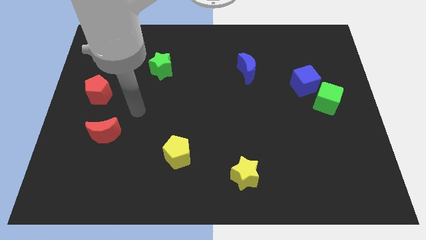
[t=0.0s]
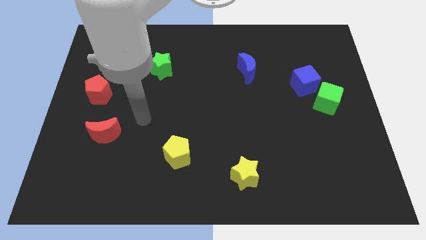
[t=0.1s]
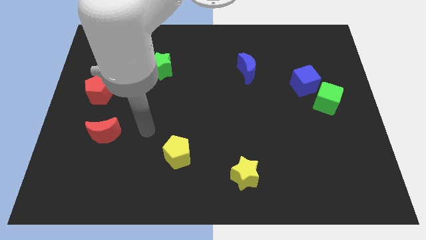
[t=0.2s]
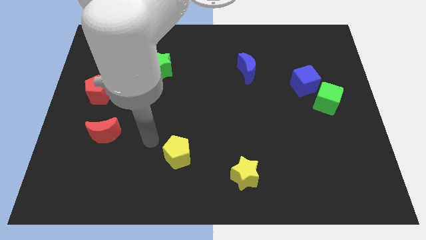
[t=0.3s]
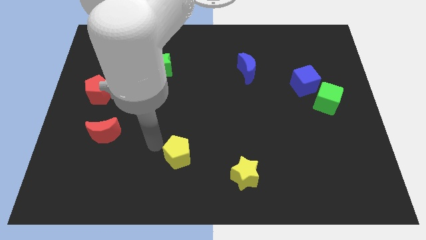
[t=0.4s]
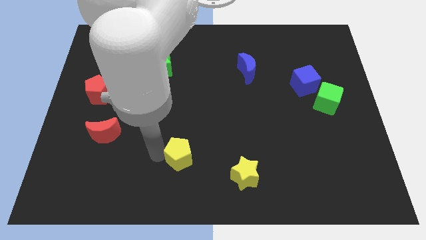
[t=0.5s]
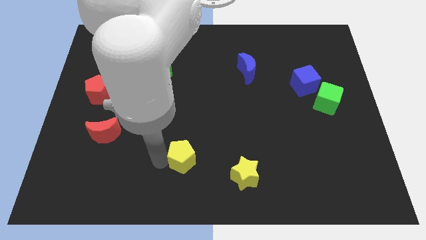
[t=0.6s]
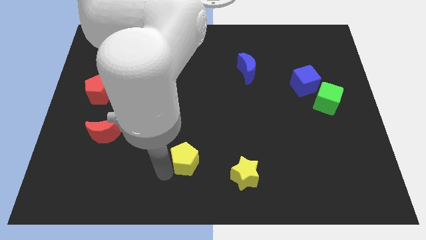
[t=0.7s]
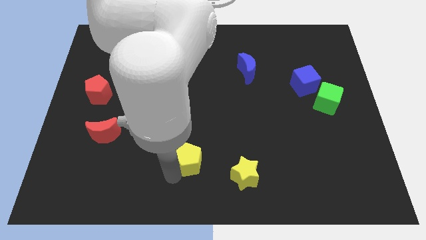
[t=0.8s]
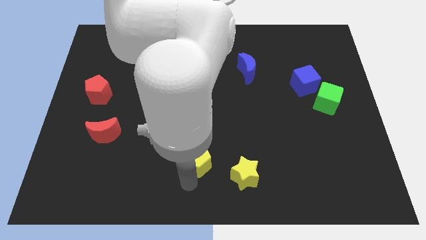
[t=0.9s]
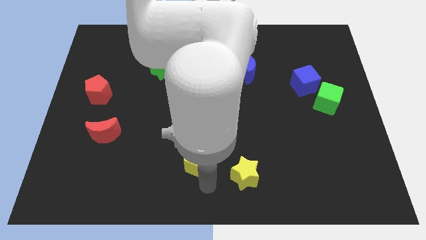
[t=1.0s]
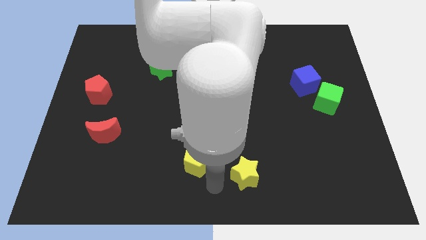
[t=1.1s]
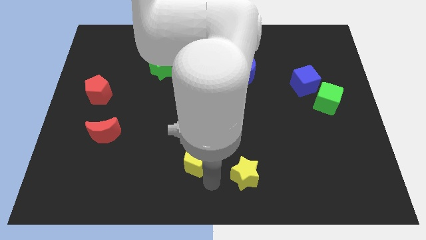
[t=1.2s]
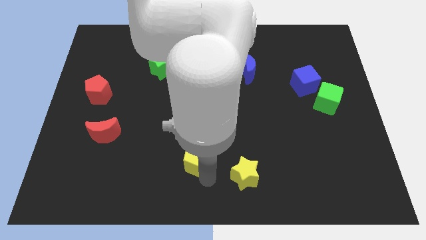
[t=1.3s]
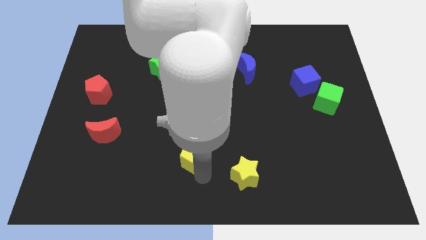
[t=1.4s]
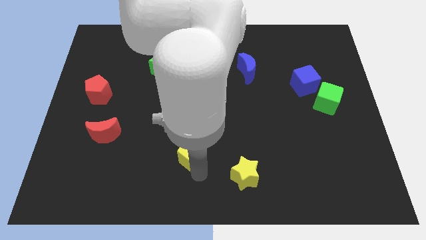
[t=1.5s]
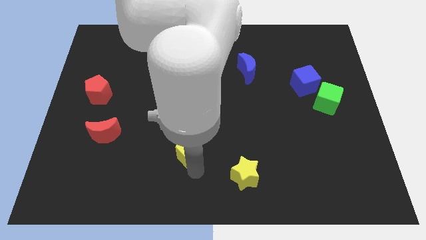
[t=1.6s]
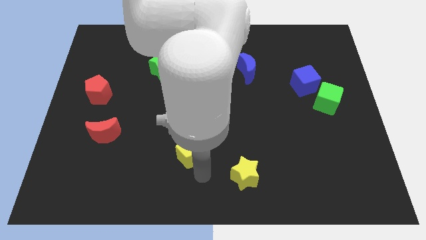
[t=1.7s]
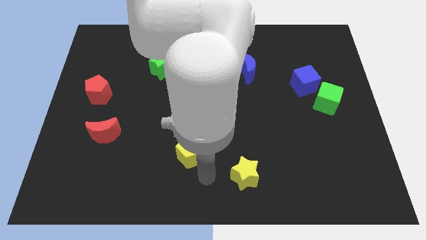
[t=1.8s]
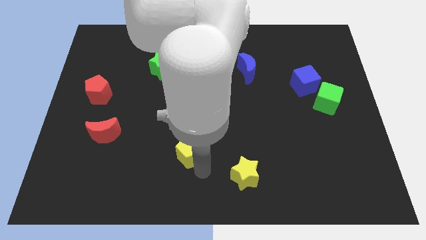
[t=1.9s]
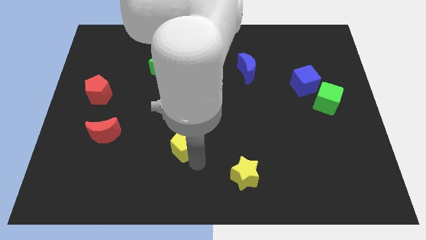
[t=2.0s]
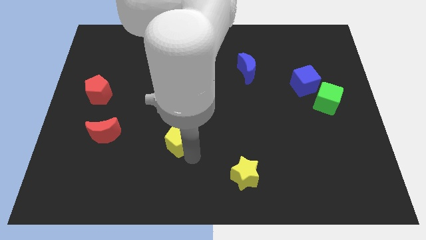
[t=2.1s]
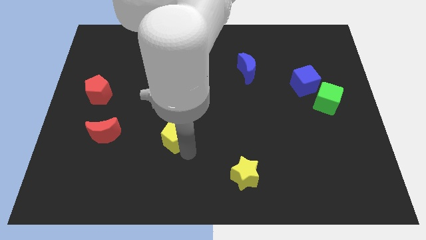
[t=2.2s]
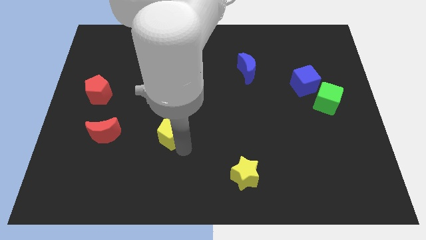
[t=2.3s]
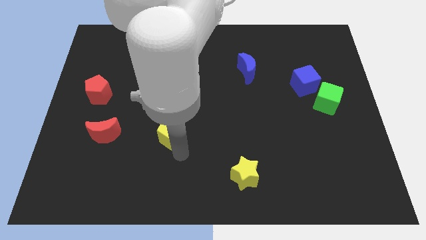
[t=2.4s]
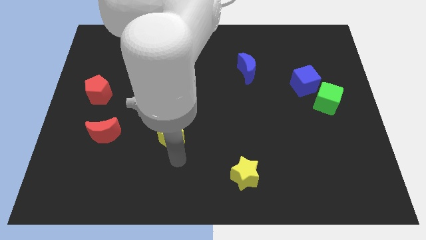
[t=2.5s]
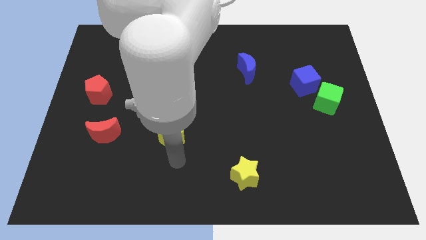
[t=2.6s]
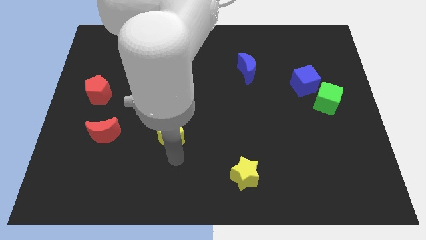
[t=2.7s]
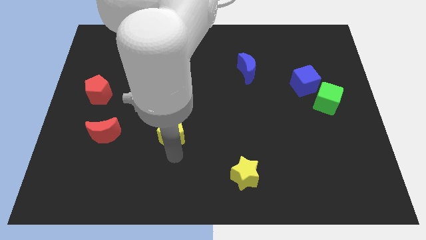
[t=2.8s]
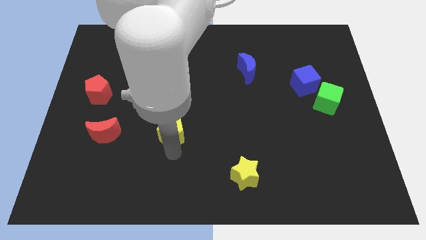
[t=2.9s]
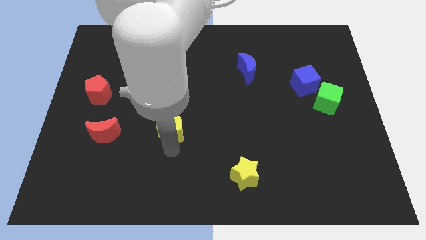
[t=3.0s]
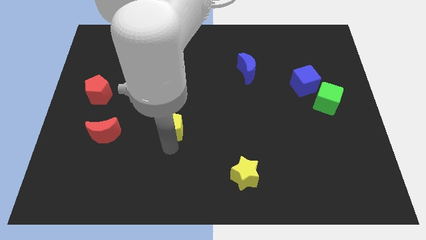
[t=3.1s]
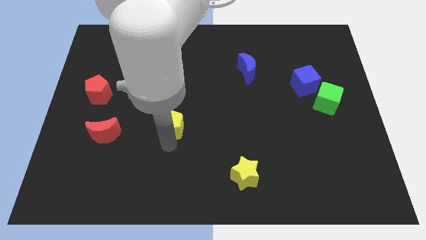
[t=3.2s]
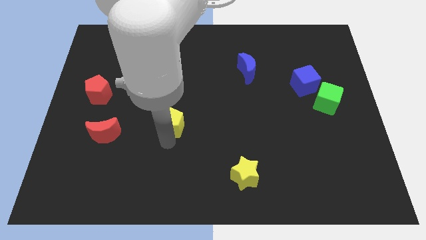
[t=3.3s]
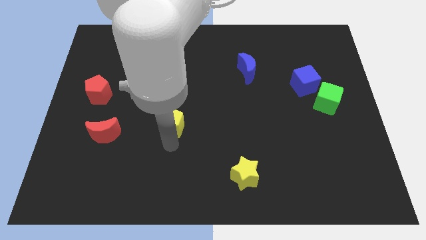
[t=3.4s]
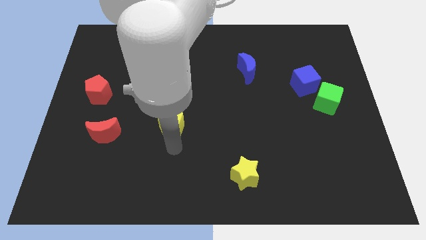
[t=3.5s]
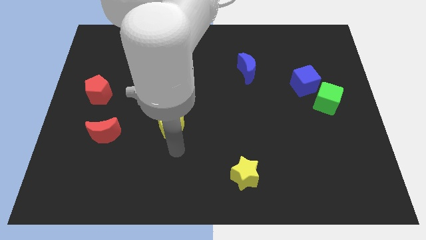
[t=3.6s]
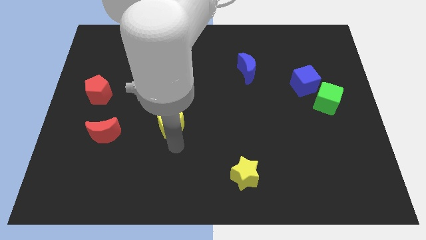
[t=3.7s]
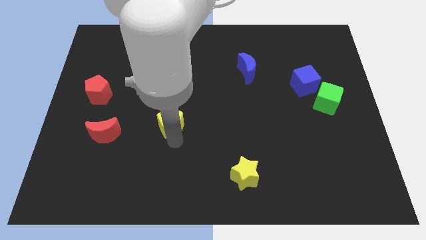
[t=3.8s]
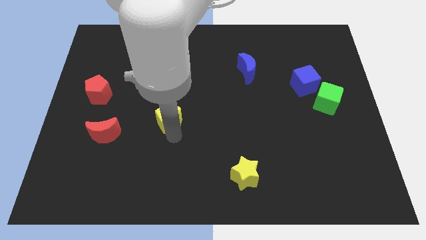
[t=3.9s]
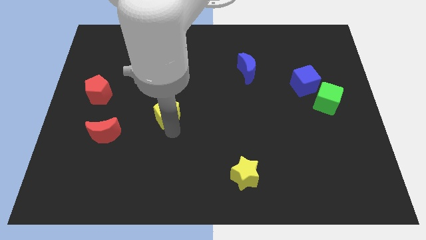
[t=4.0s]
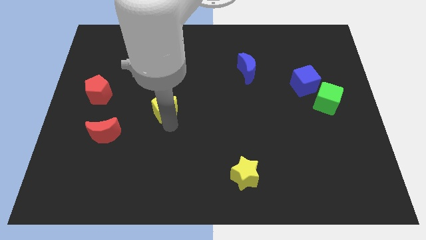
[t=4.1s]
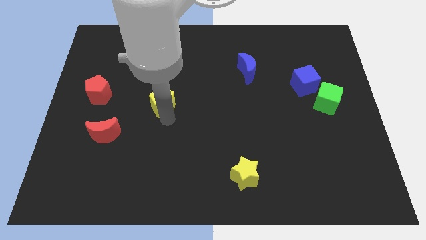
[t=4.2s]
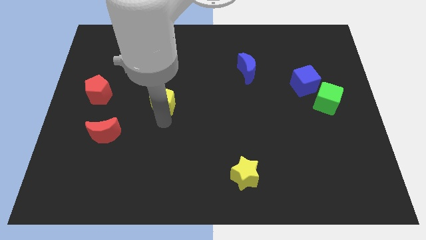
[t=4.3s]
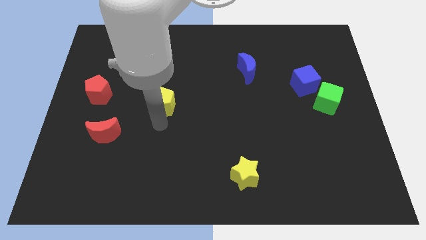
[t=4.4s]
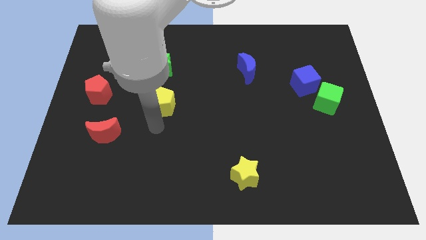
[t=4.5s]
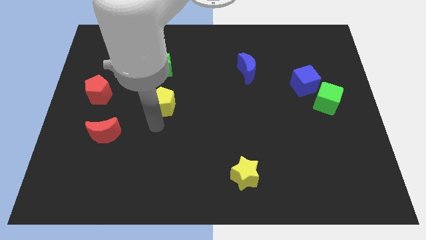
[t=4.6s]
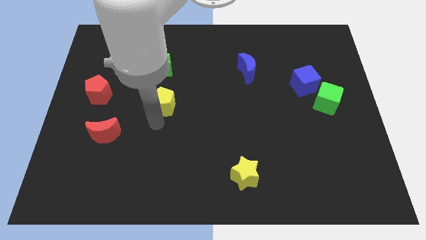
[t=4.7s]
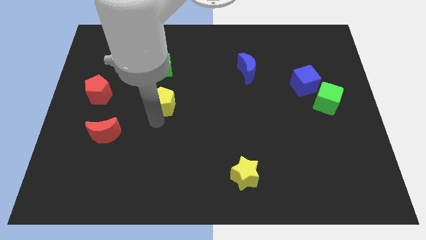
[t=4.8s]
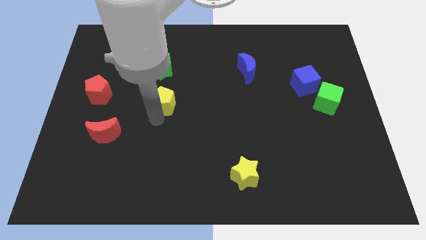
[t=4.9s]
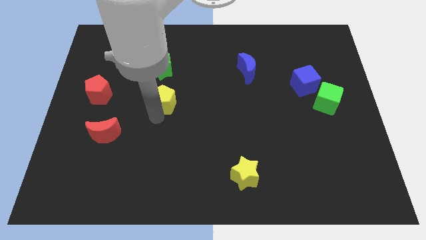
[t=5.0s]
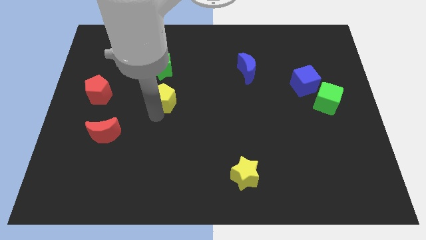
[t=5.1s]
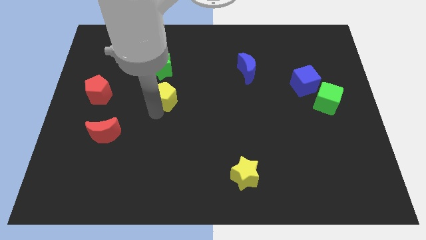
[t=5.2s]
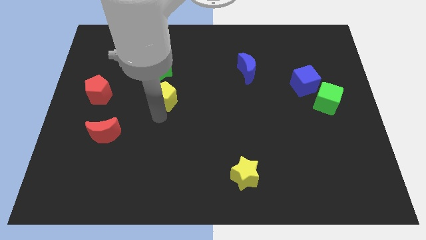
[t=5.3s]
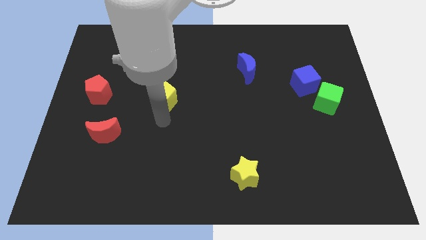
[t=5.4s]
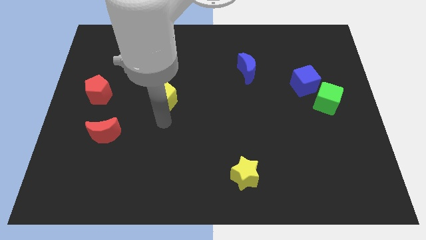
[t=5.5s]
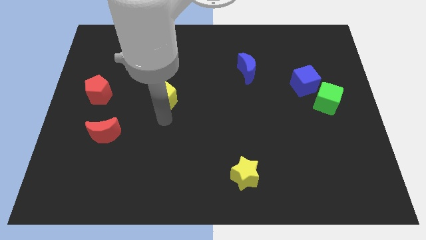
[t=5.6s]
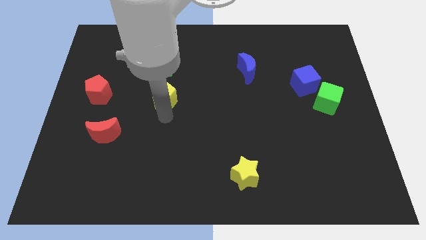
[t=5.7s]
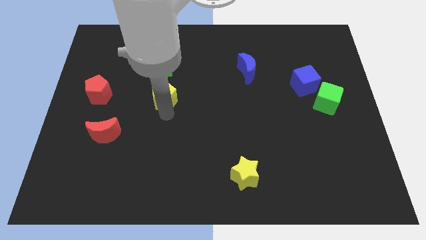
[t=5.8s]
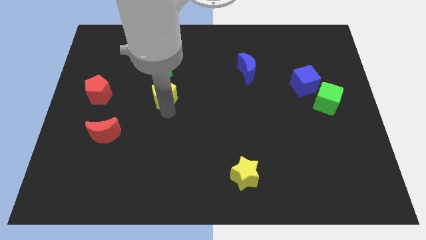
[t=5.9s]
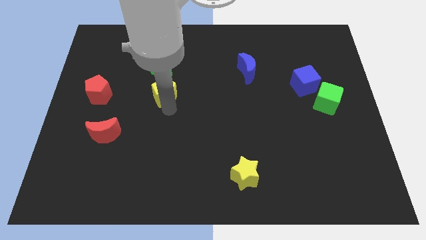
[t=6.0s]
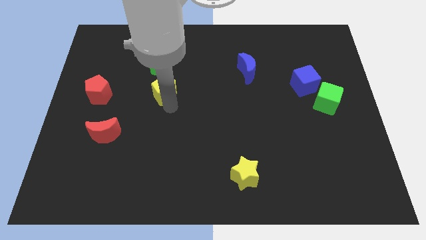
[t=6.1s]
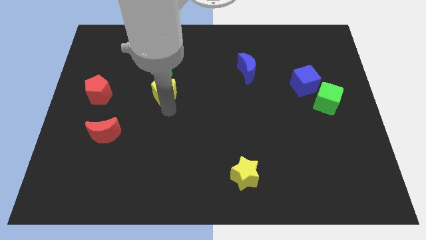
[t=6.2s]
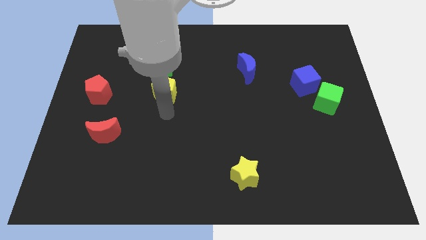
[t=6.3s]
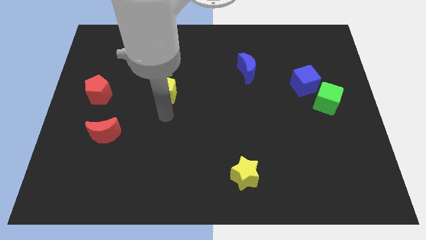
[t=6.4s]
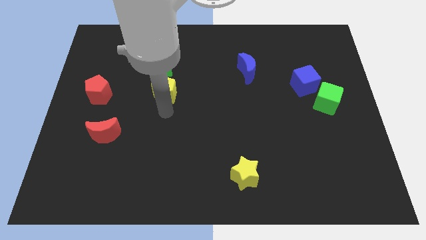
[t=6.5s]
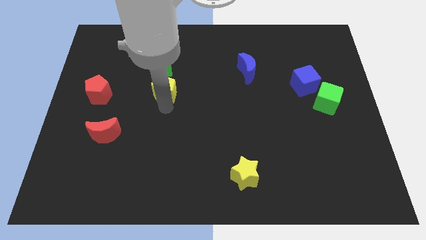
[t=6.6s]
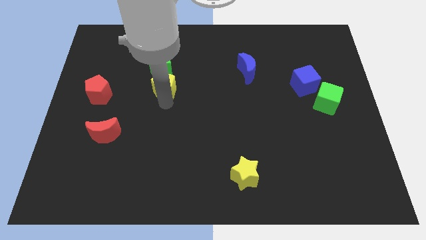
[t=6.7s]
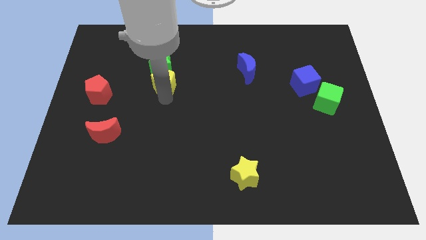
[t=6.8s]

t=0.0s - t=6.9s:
slide the yellow pentagon close to the green star

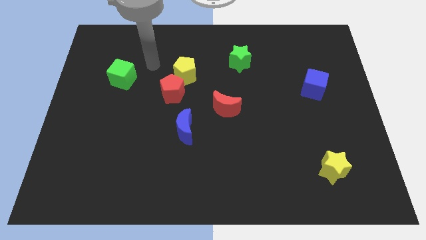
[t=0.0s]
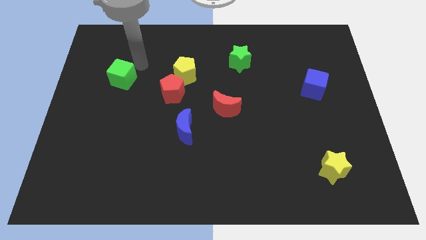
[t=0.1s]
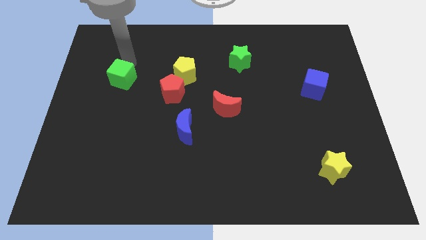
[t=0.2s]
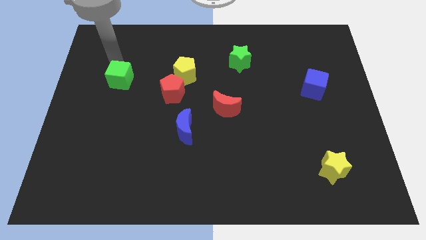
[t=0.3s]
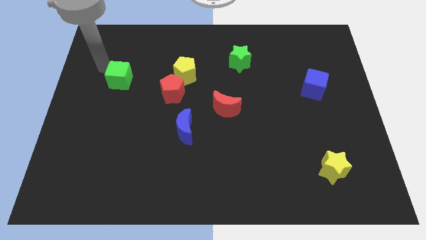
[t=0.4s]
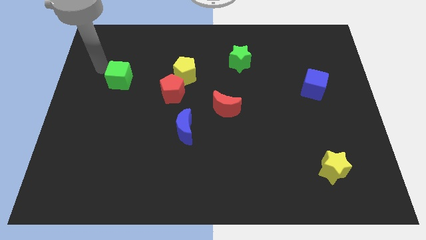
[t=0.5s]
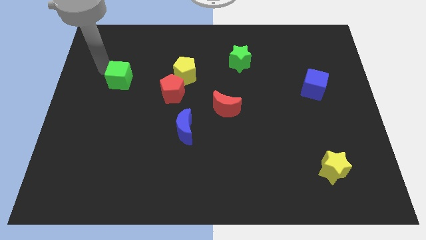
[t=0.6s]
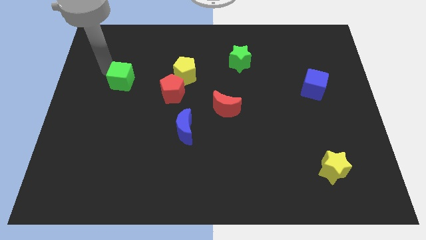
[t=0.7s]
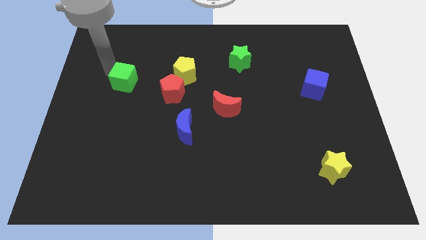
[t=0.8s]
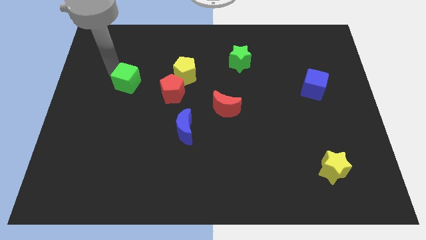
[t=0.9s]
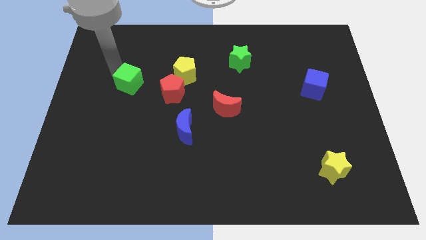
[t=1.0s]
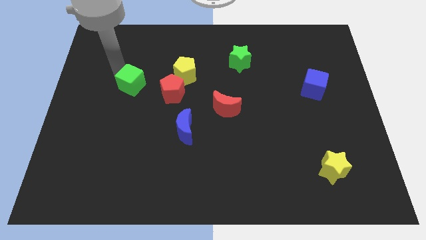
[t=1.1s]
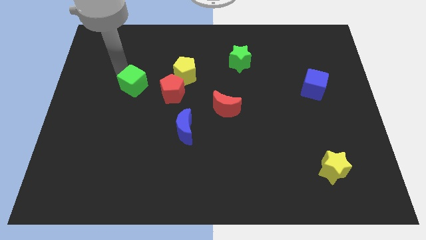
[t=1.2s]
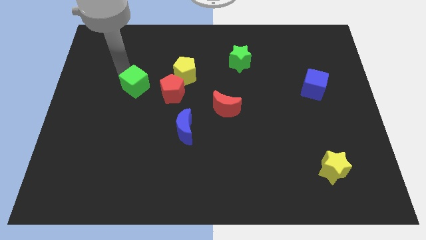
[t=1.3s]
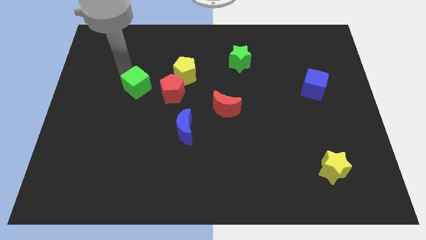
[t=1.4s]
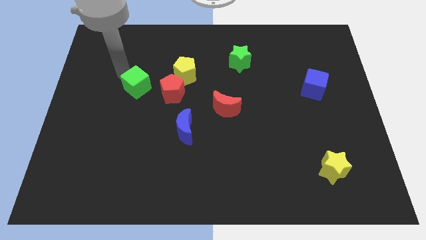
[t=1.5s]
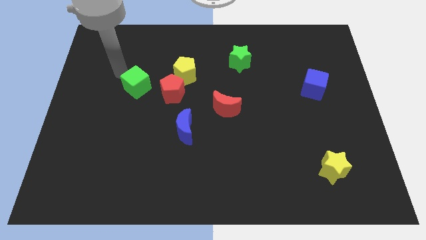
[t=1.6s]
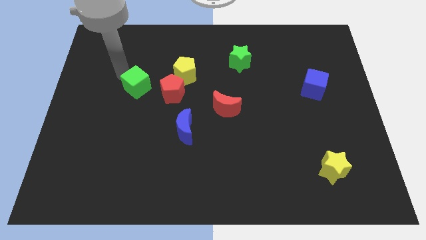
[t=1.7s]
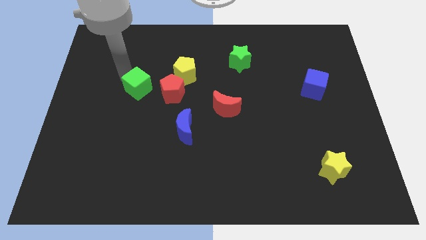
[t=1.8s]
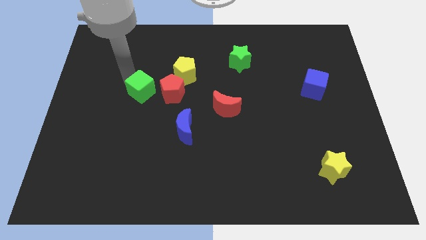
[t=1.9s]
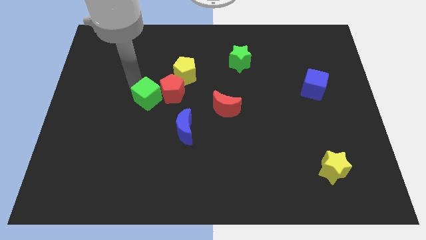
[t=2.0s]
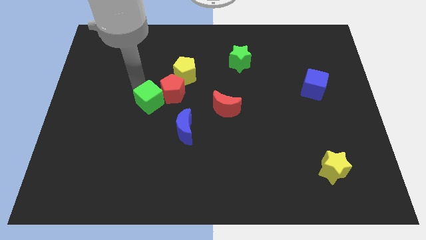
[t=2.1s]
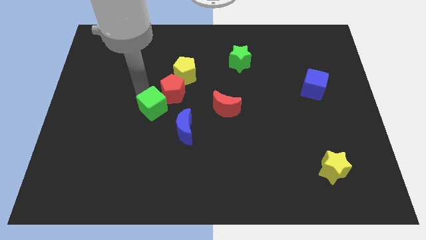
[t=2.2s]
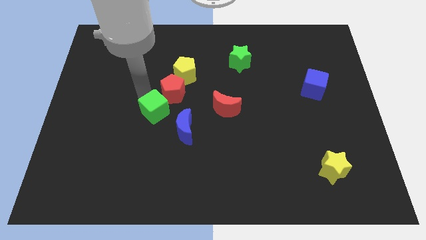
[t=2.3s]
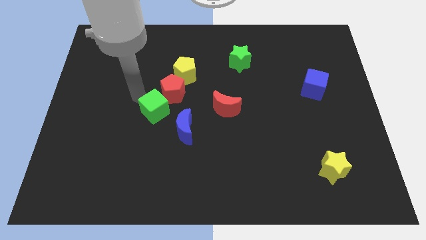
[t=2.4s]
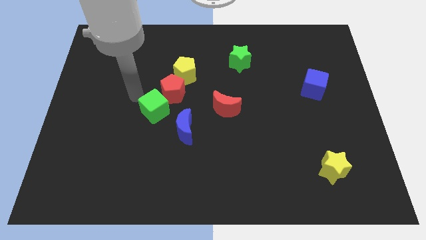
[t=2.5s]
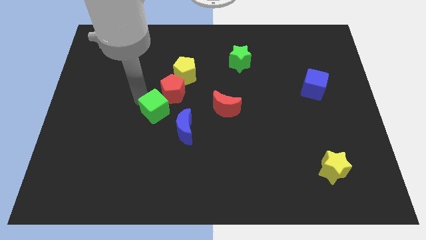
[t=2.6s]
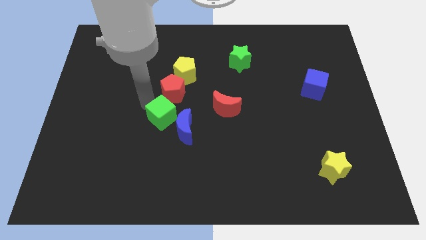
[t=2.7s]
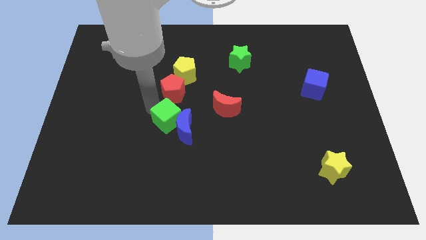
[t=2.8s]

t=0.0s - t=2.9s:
move the green cube close to the blue moon
